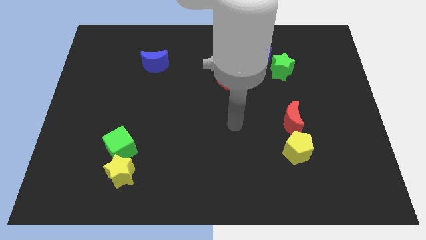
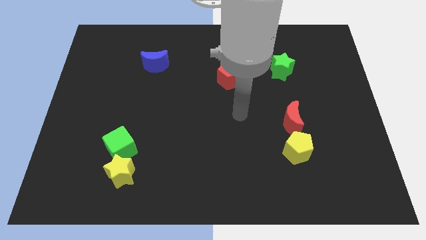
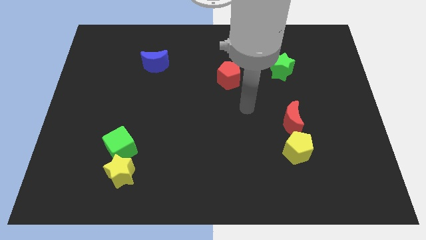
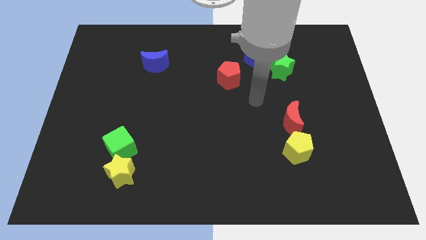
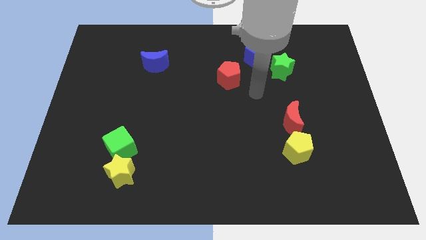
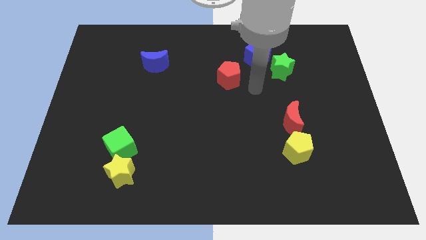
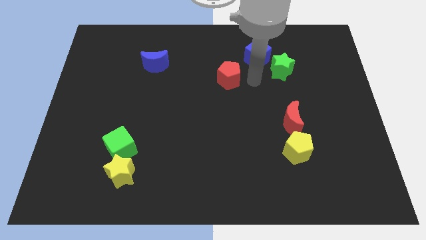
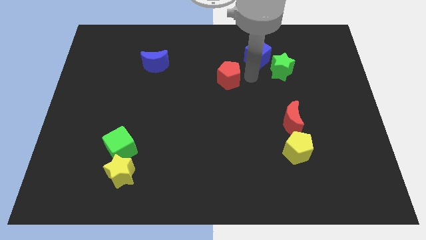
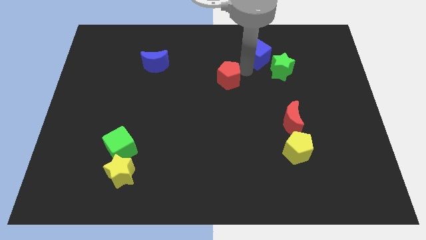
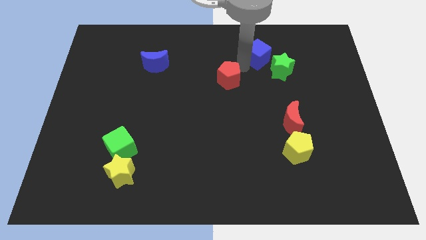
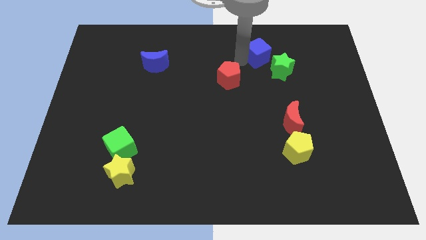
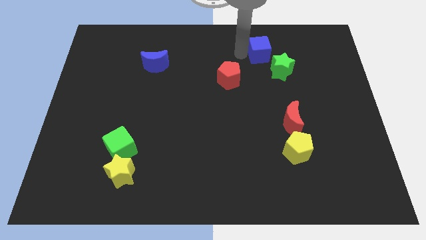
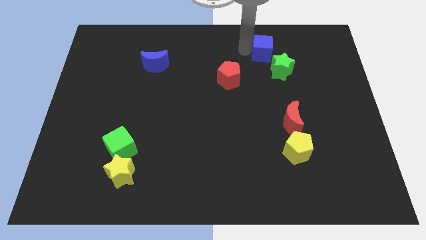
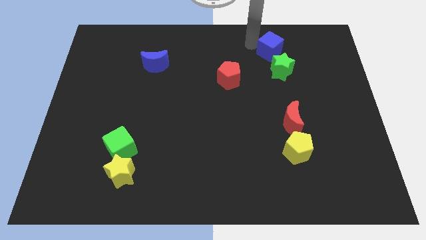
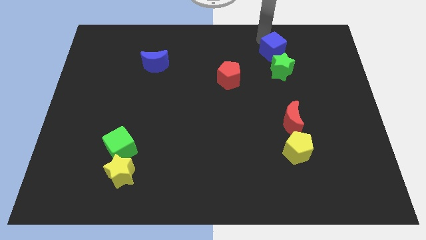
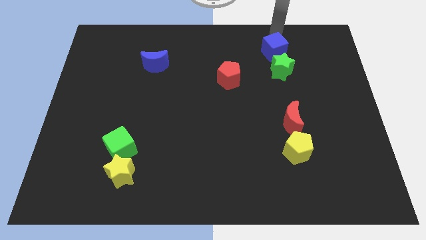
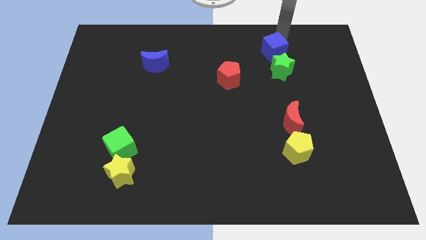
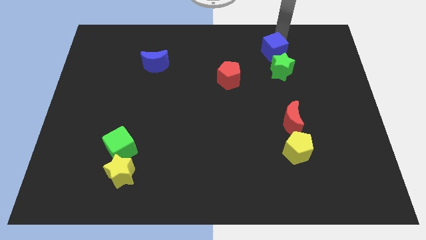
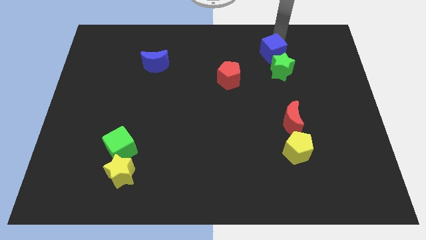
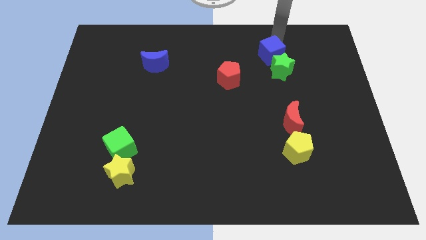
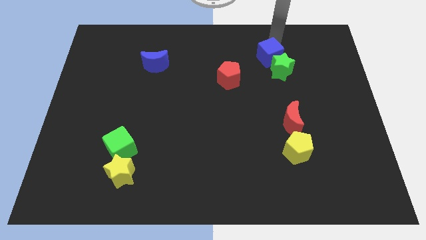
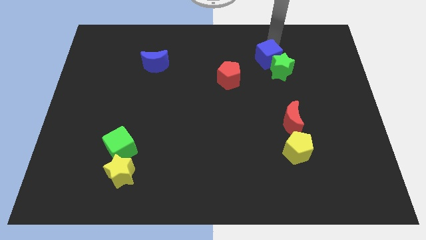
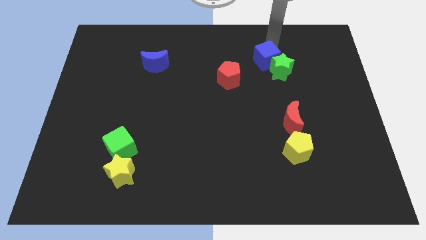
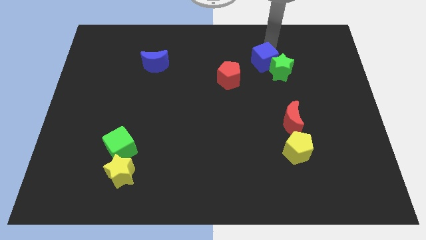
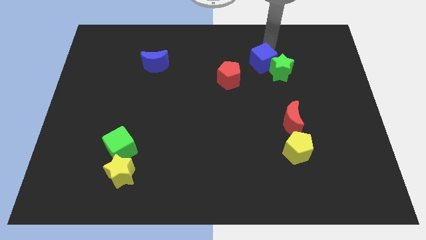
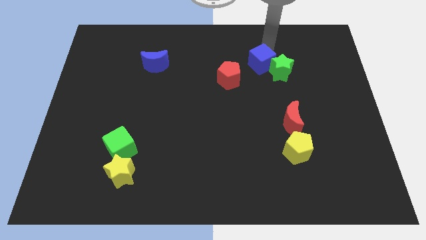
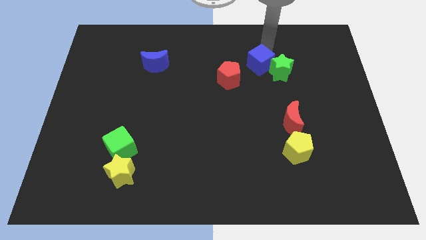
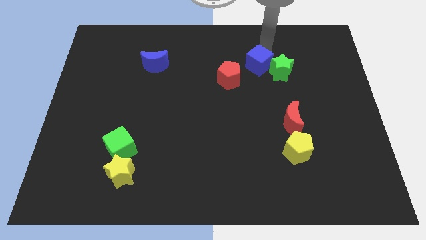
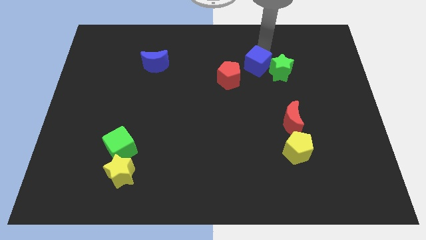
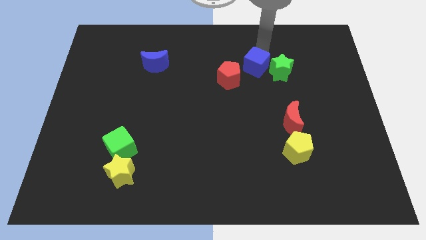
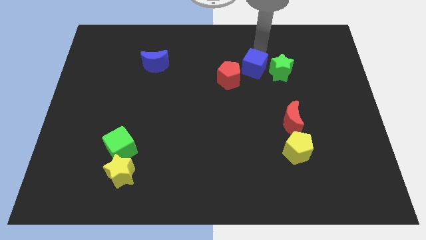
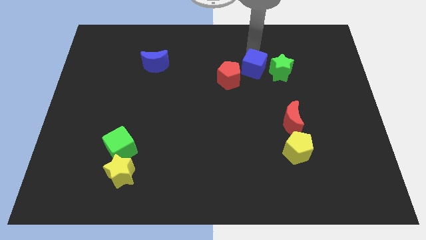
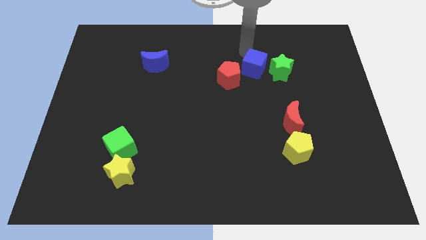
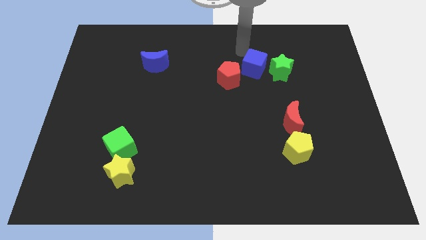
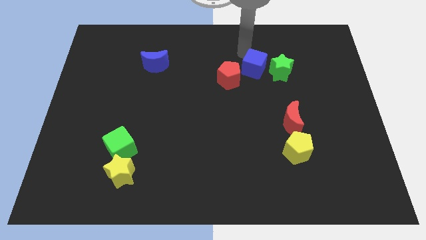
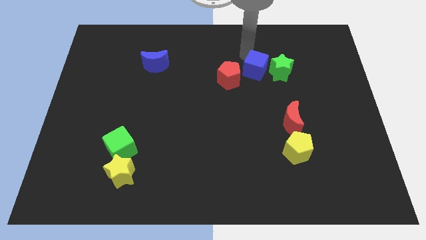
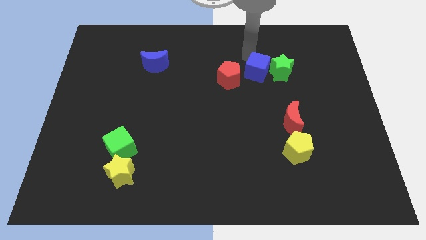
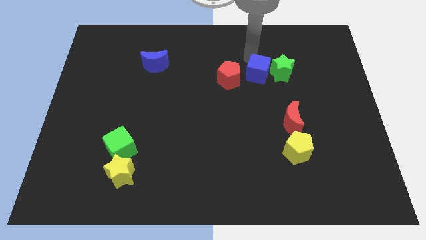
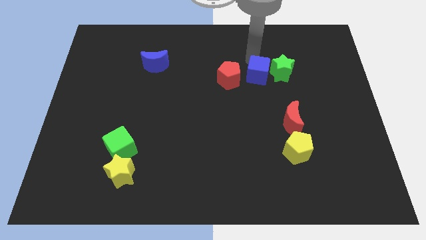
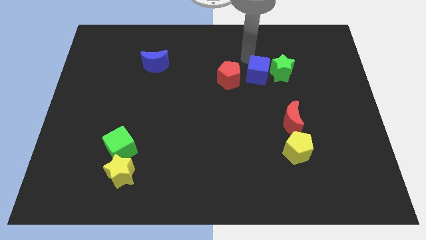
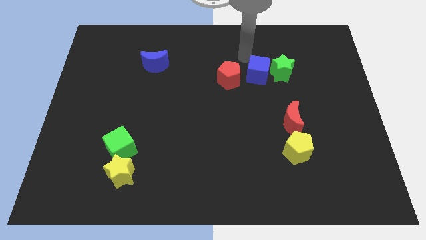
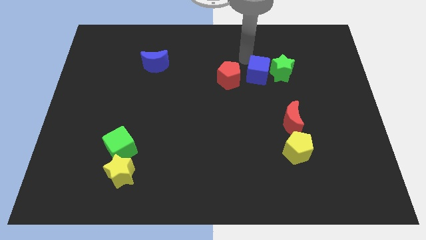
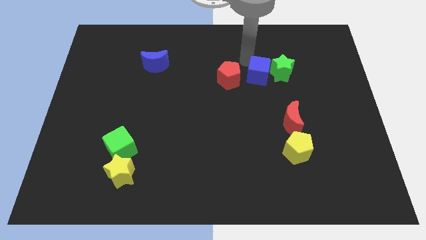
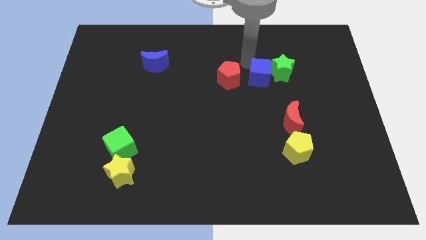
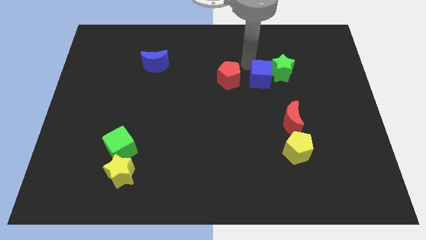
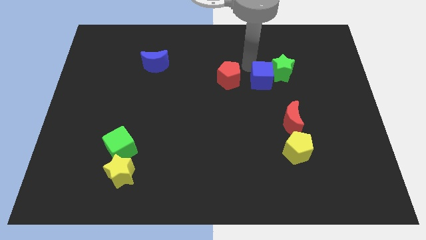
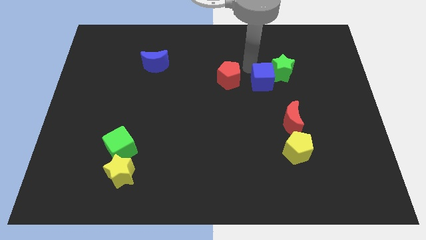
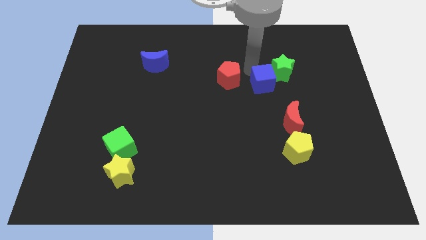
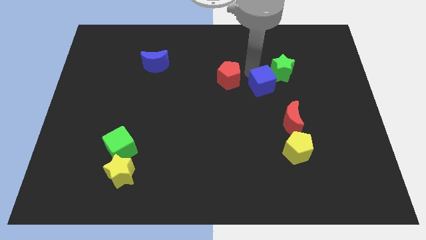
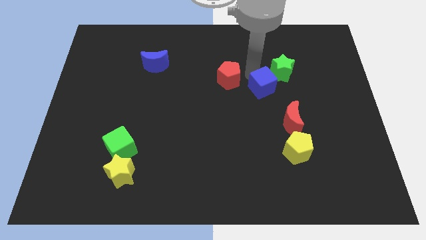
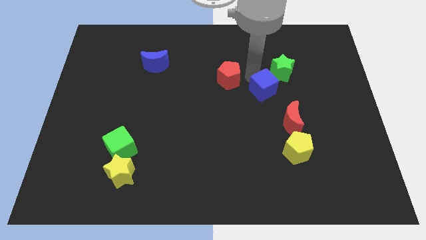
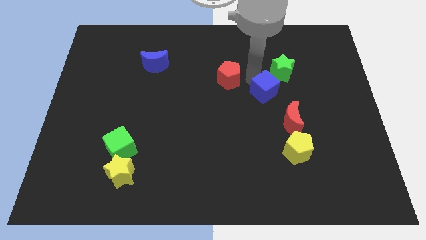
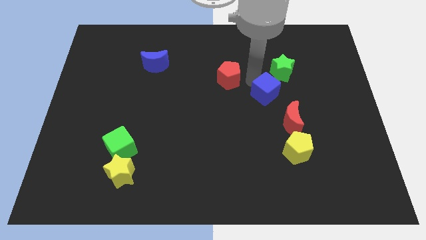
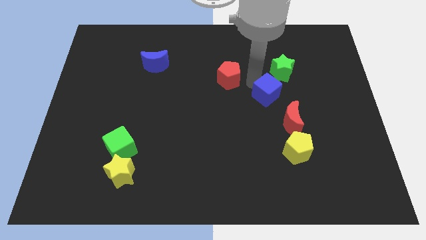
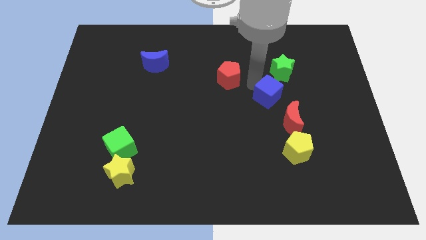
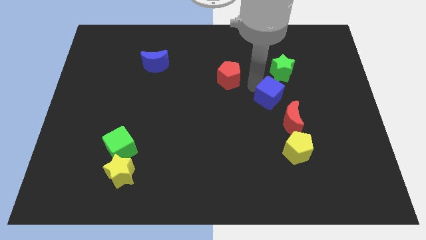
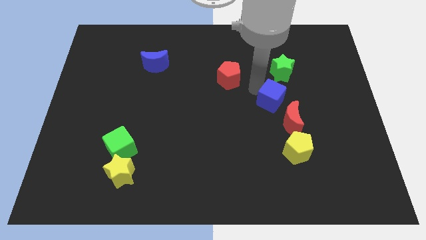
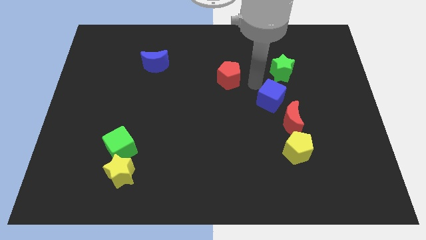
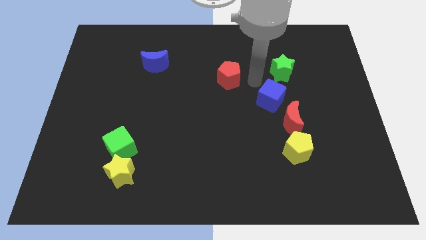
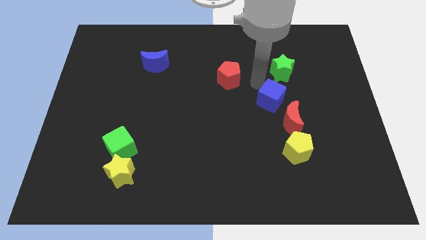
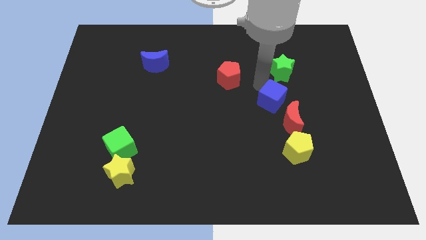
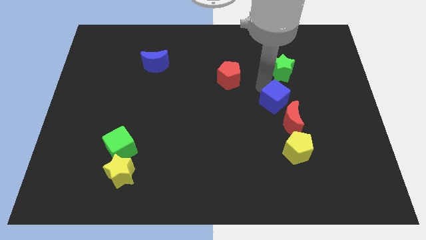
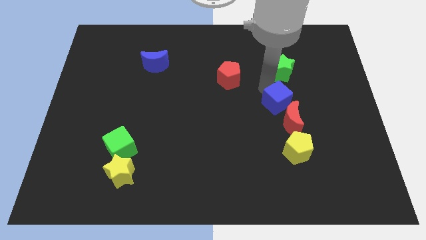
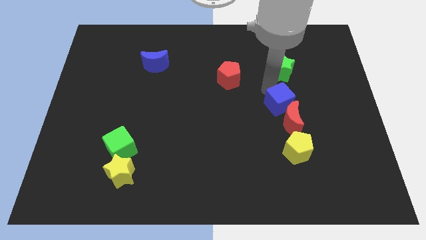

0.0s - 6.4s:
slide the blue cube next to the red moon

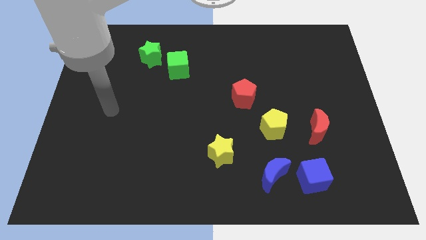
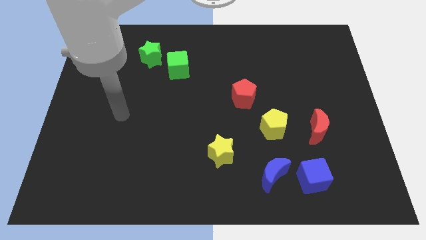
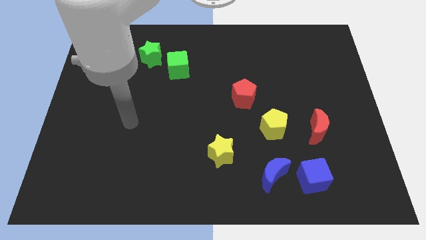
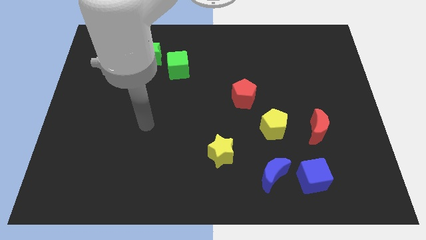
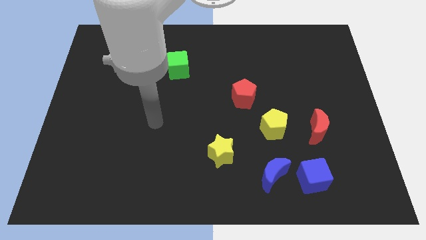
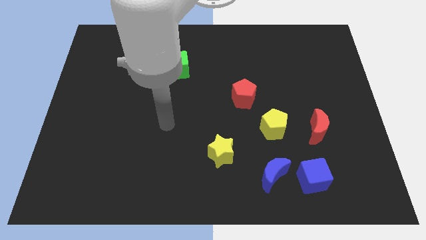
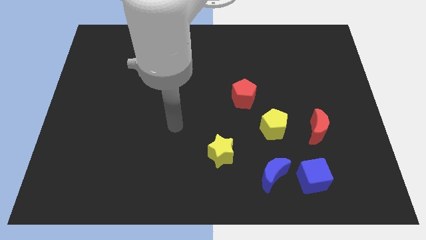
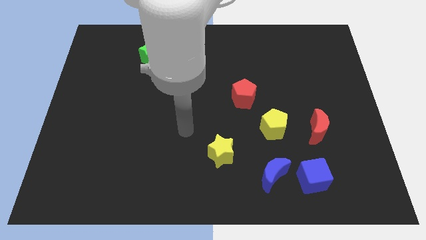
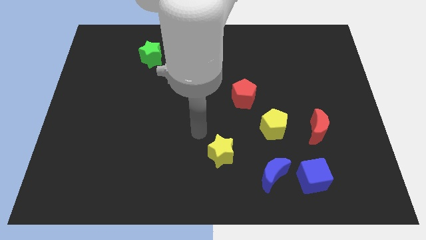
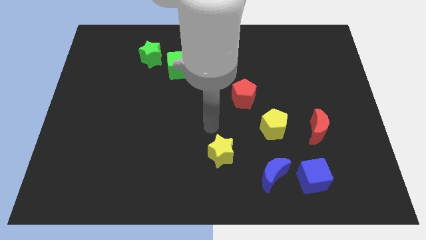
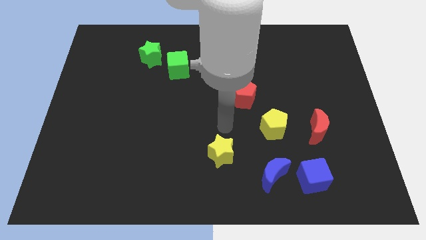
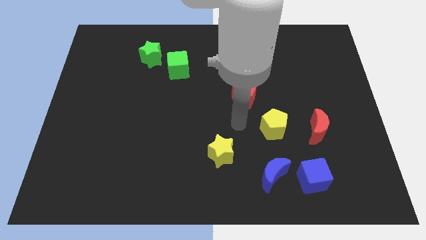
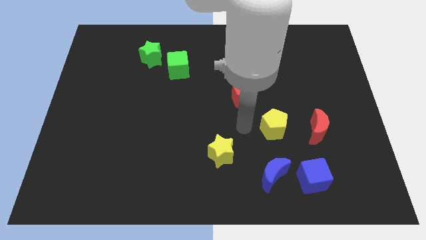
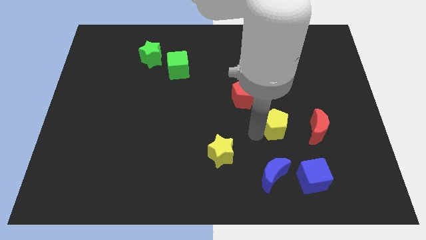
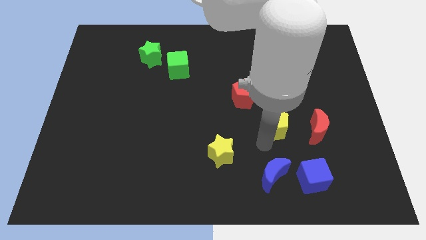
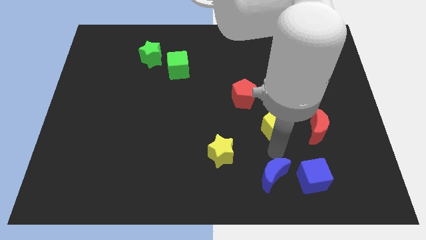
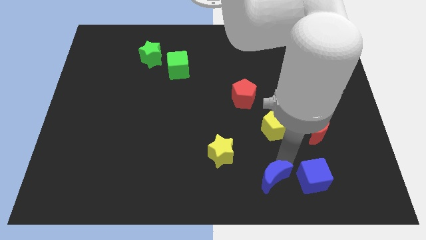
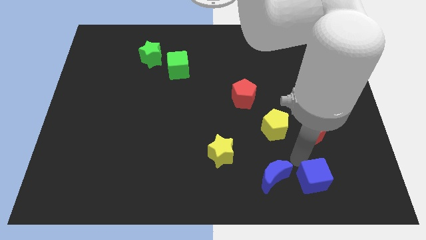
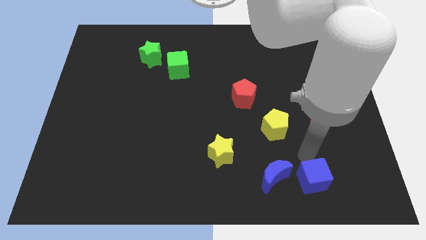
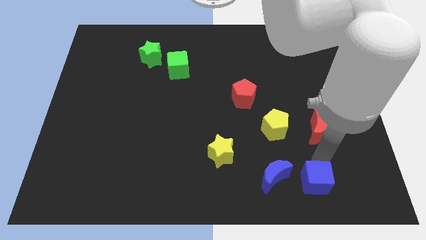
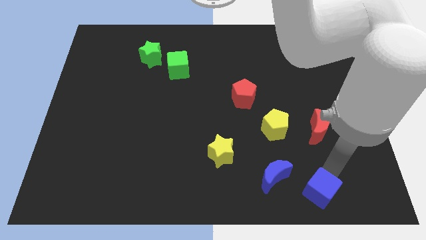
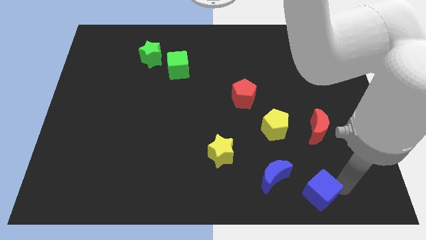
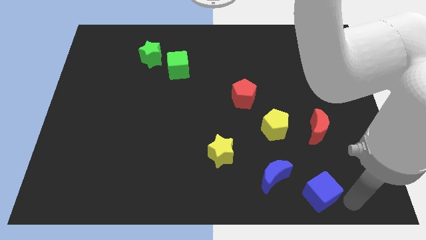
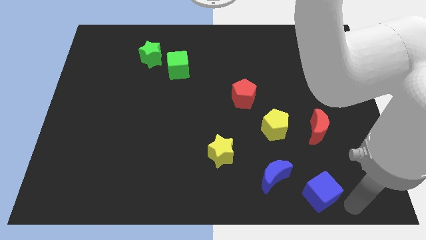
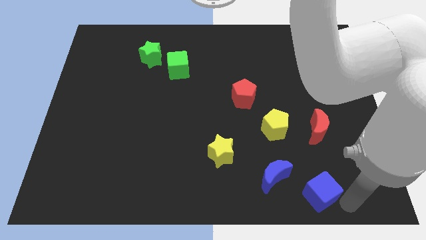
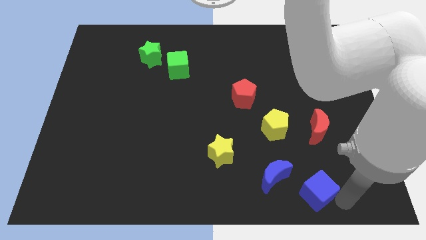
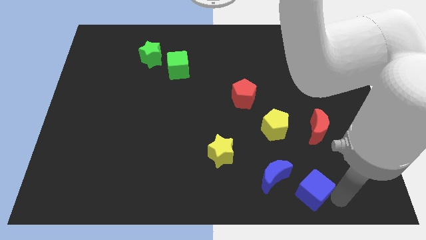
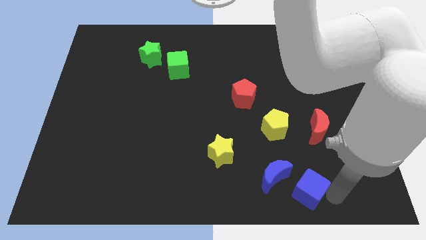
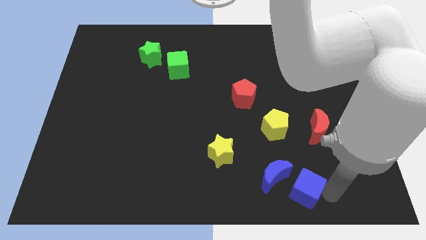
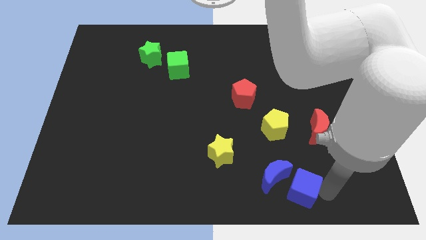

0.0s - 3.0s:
slide the blue cube close to the blue moon
